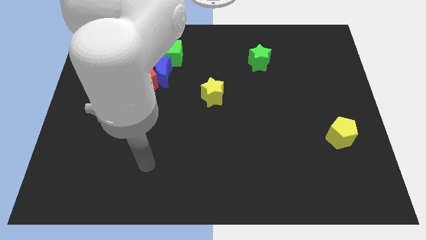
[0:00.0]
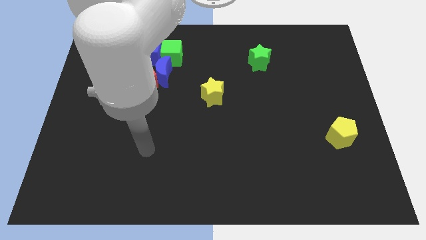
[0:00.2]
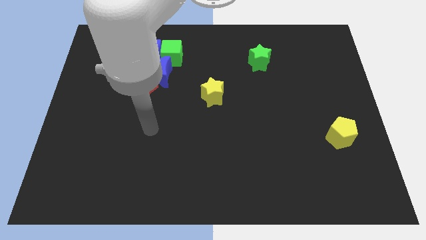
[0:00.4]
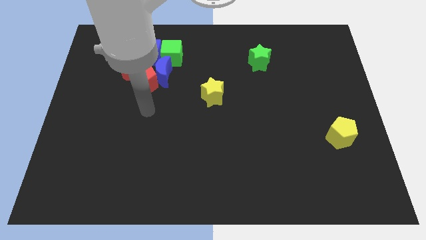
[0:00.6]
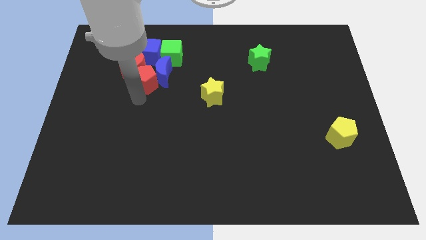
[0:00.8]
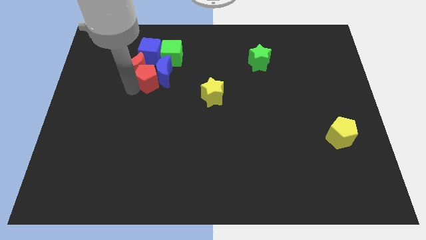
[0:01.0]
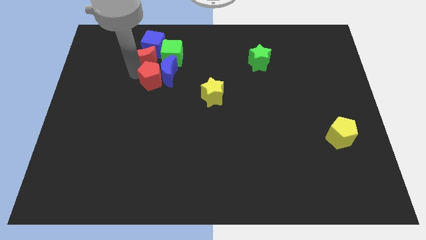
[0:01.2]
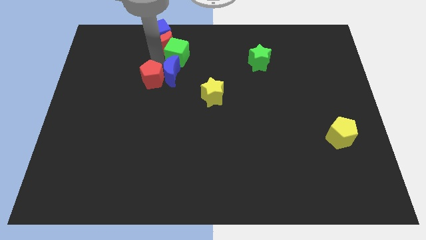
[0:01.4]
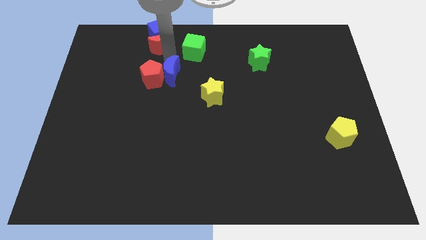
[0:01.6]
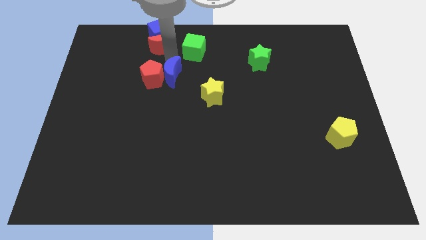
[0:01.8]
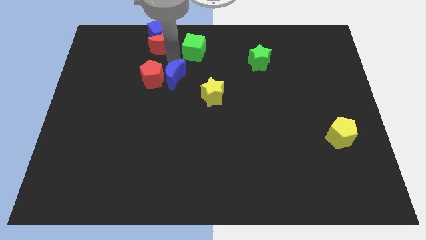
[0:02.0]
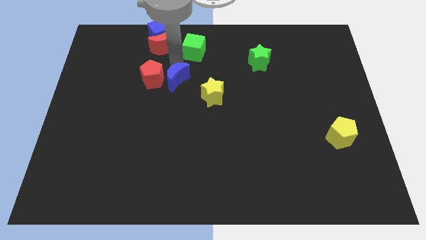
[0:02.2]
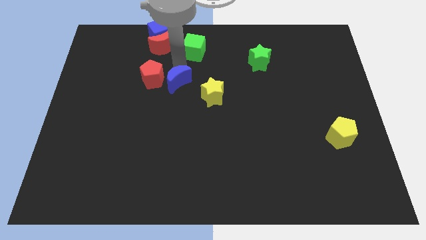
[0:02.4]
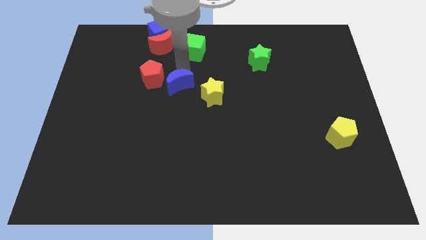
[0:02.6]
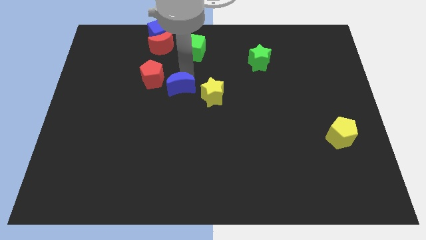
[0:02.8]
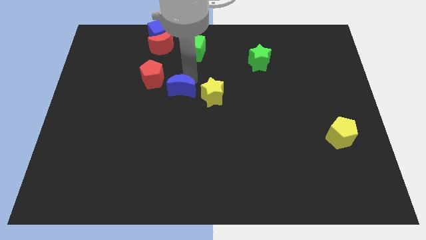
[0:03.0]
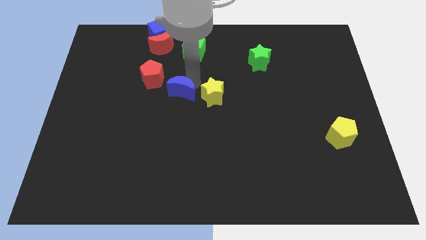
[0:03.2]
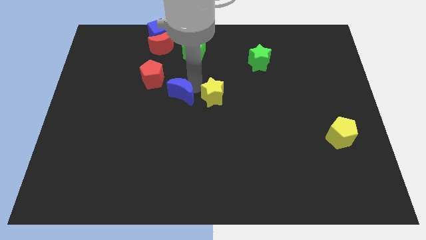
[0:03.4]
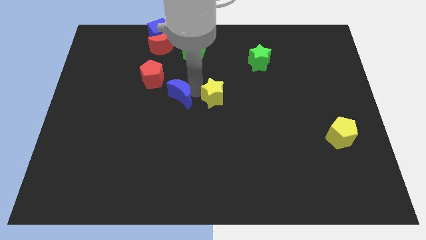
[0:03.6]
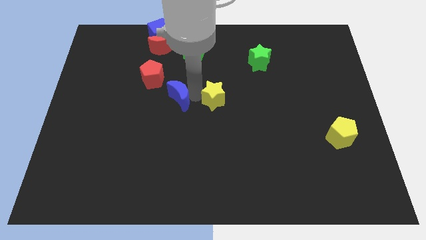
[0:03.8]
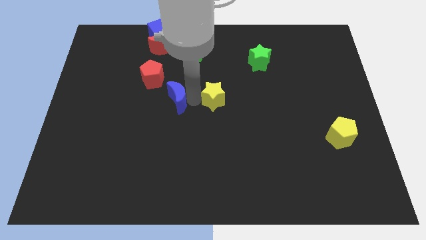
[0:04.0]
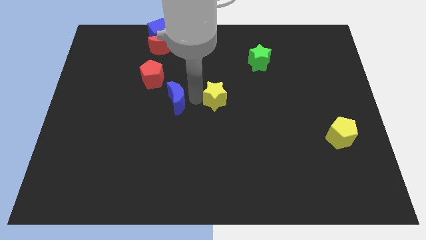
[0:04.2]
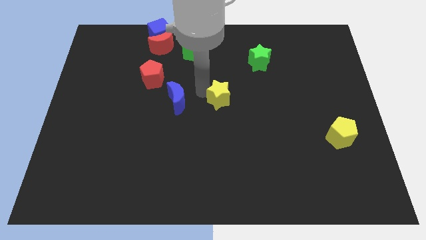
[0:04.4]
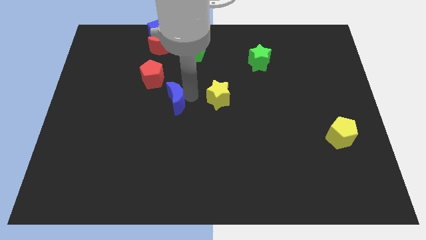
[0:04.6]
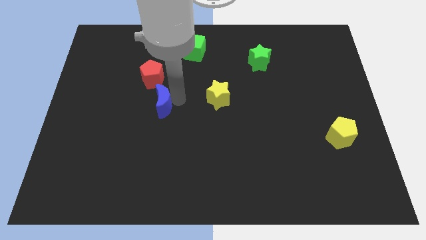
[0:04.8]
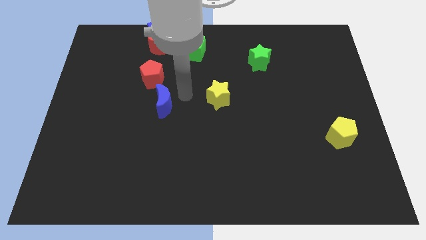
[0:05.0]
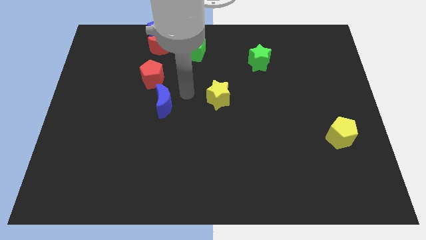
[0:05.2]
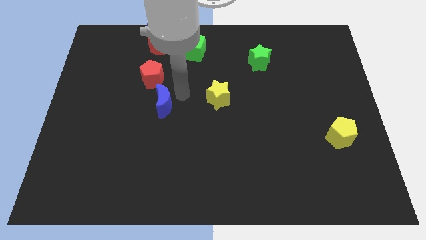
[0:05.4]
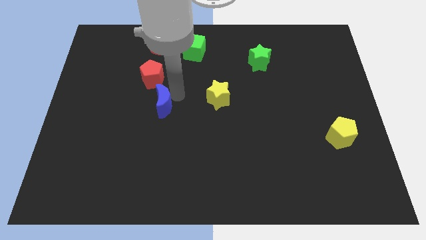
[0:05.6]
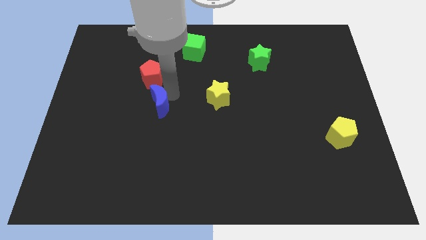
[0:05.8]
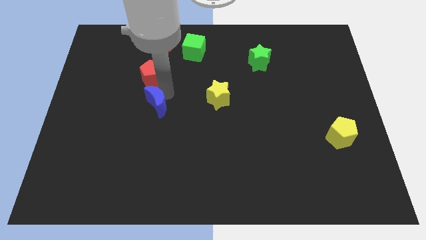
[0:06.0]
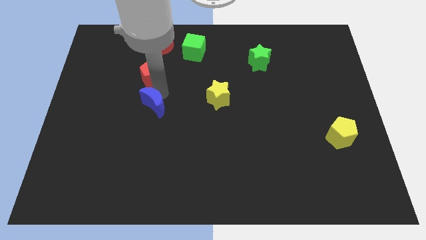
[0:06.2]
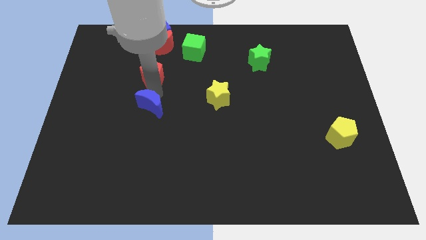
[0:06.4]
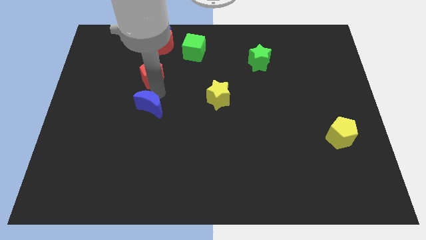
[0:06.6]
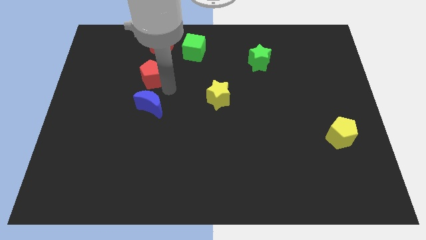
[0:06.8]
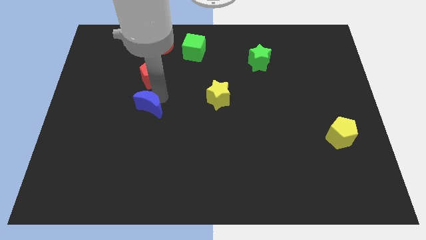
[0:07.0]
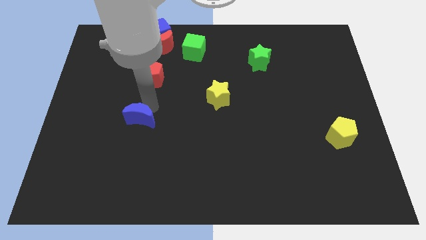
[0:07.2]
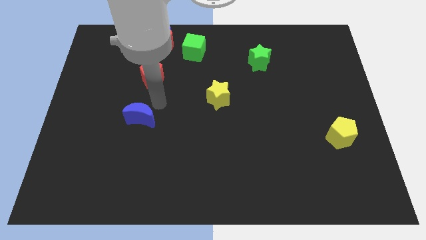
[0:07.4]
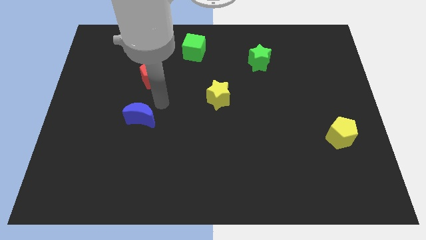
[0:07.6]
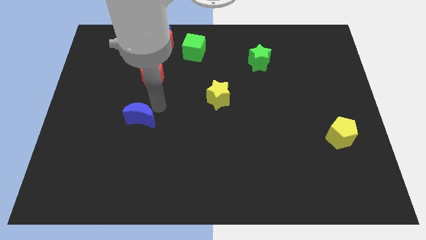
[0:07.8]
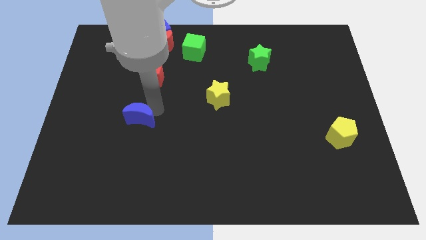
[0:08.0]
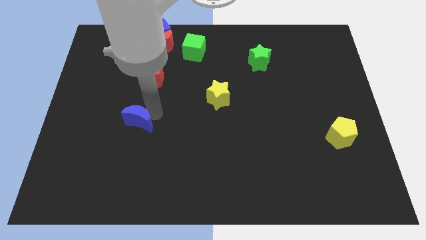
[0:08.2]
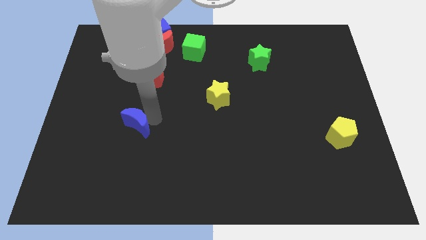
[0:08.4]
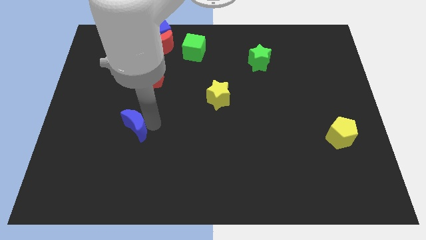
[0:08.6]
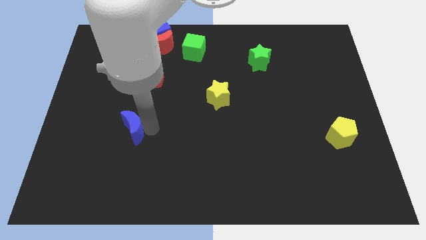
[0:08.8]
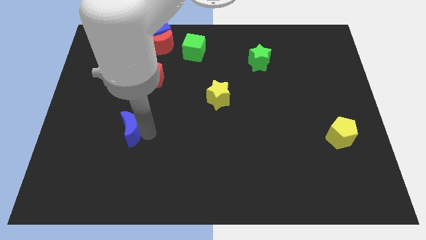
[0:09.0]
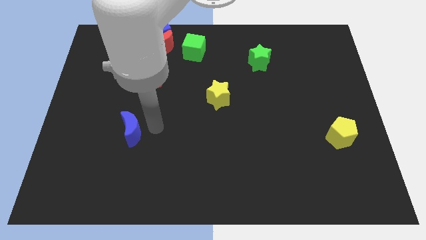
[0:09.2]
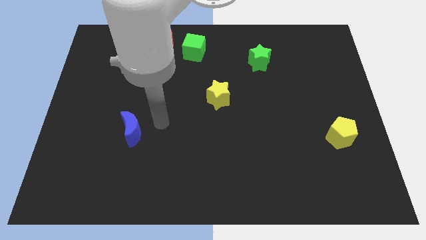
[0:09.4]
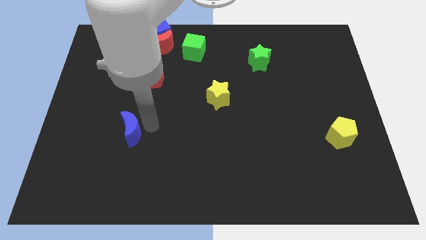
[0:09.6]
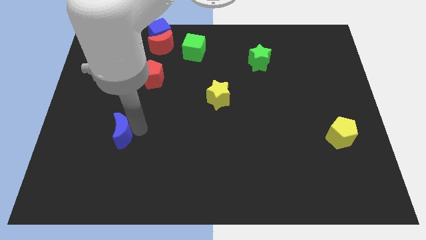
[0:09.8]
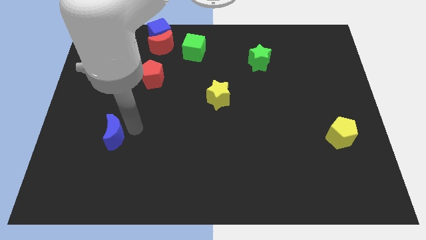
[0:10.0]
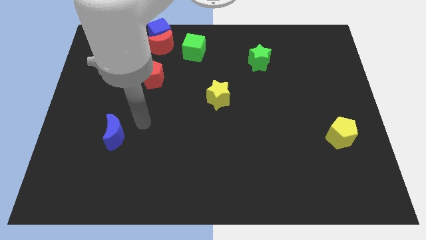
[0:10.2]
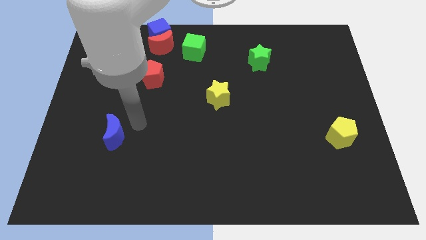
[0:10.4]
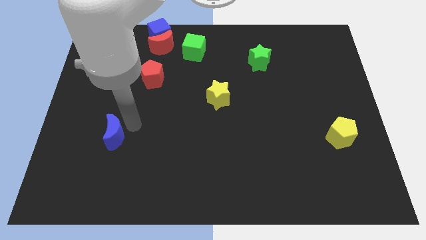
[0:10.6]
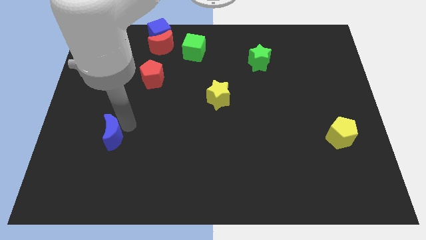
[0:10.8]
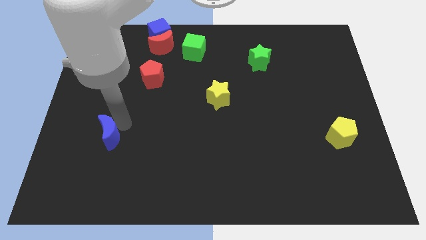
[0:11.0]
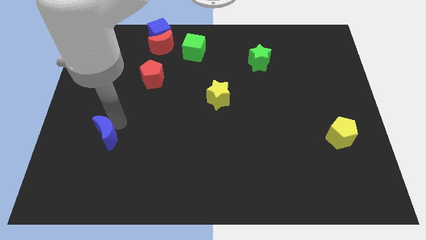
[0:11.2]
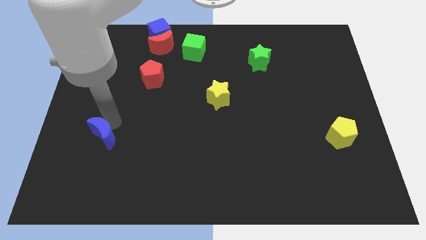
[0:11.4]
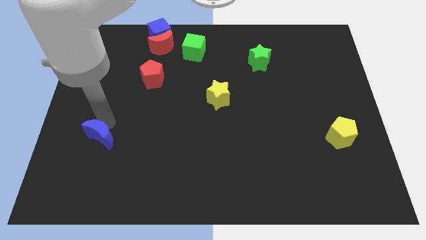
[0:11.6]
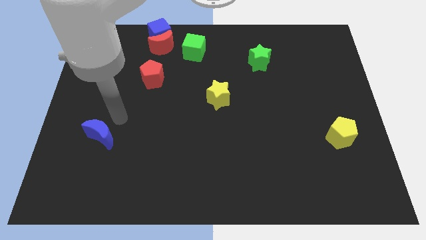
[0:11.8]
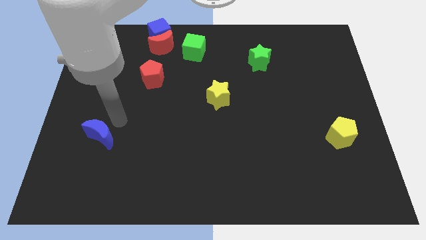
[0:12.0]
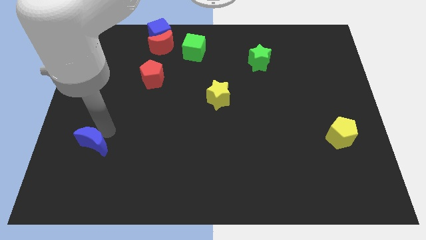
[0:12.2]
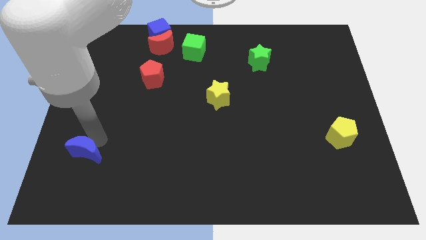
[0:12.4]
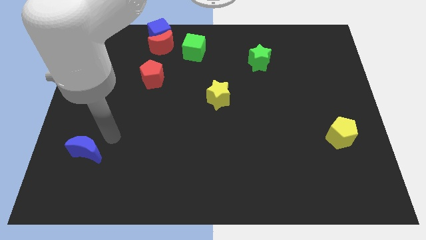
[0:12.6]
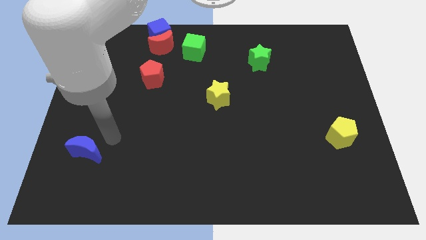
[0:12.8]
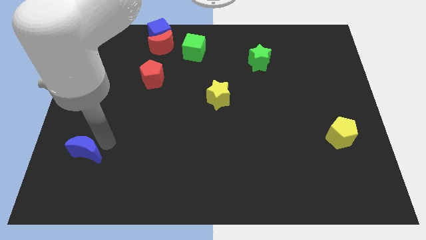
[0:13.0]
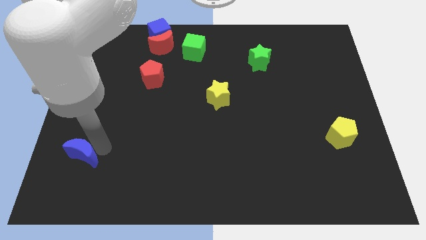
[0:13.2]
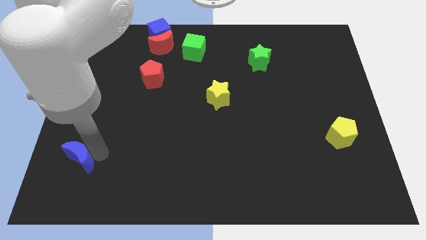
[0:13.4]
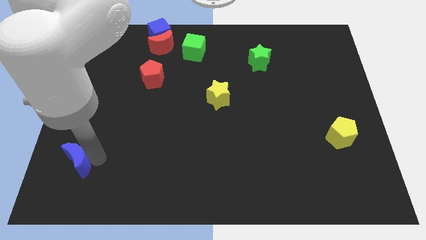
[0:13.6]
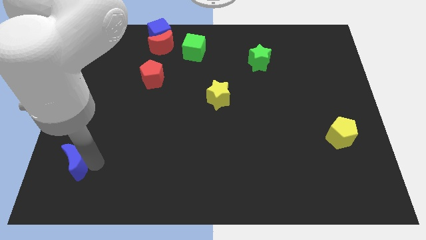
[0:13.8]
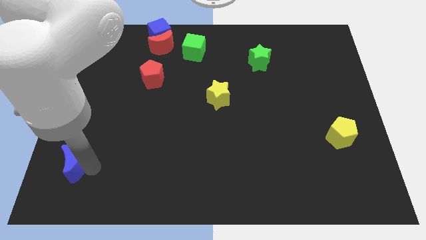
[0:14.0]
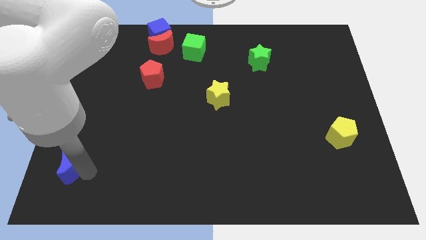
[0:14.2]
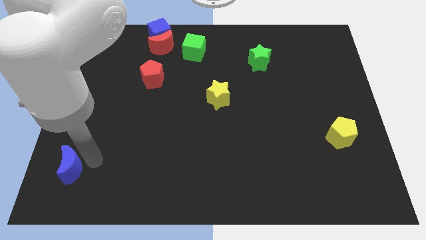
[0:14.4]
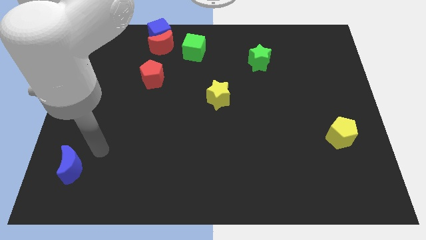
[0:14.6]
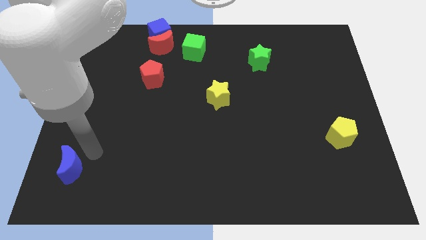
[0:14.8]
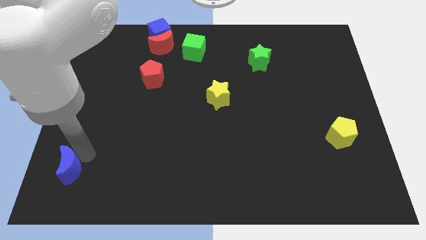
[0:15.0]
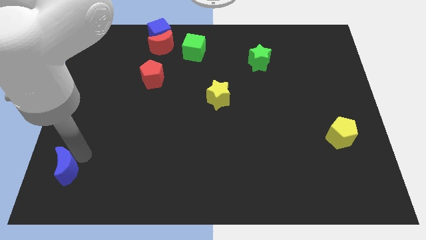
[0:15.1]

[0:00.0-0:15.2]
put the blue moon to the bottom left
